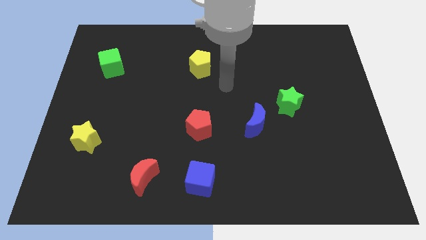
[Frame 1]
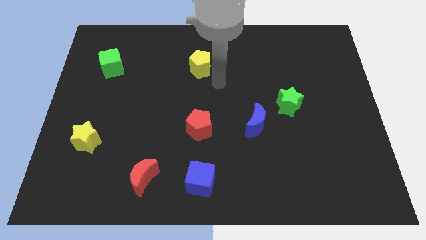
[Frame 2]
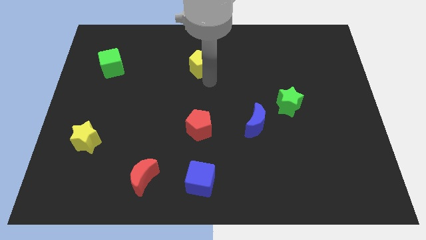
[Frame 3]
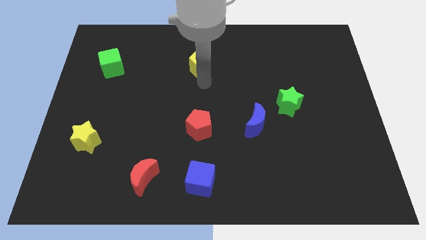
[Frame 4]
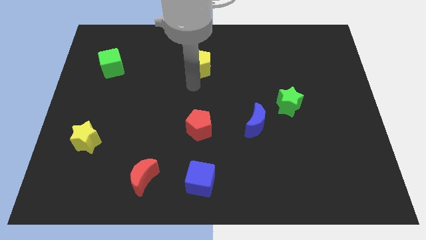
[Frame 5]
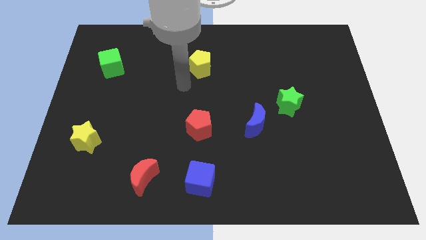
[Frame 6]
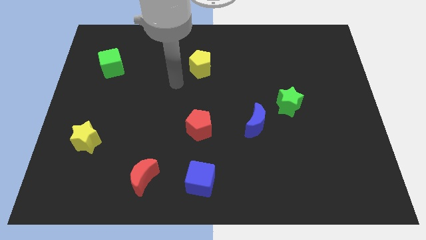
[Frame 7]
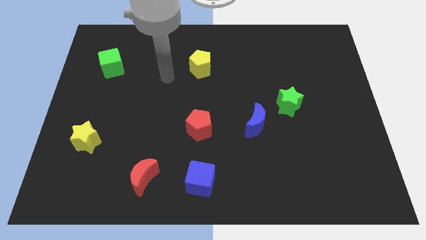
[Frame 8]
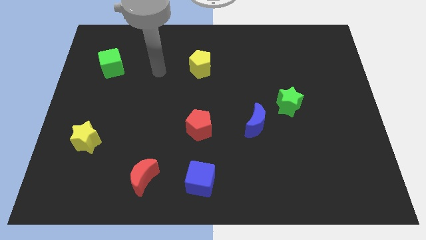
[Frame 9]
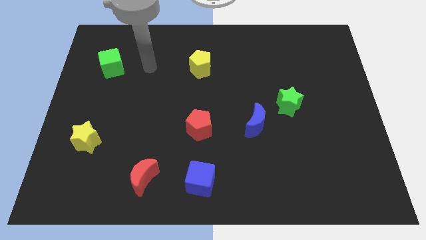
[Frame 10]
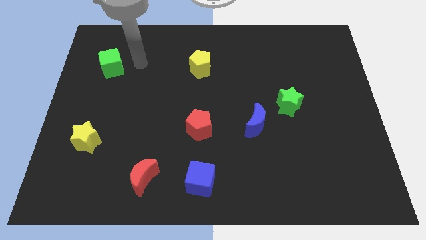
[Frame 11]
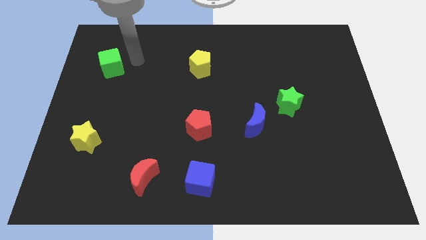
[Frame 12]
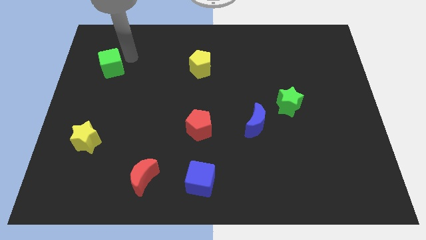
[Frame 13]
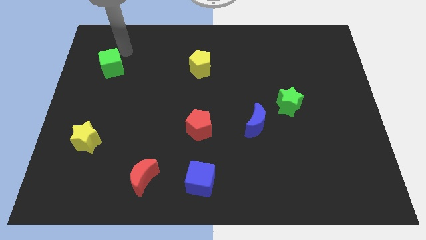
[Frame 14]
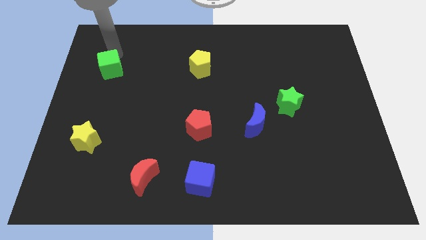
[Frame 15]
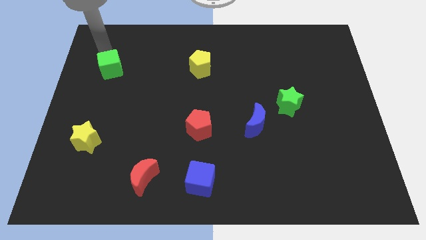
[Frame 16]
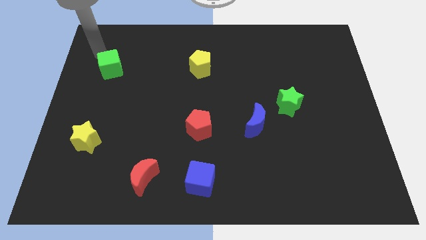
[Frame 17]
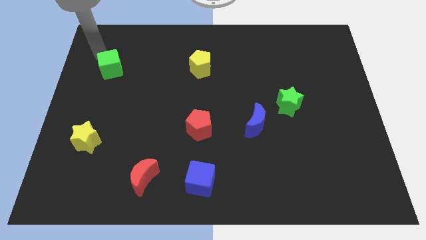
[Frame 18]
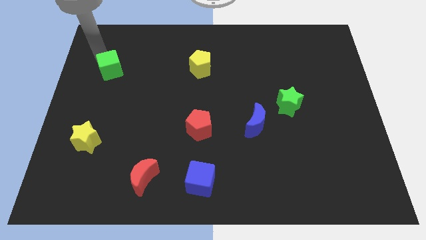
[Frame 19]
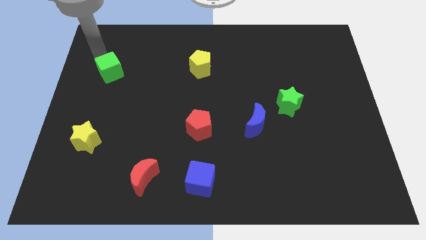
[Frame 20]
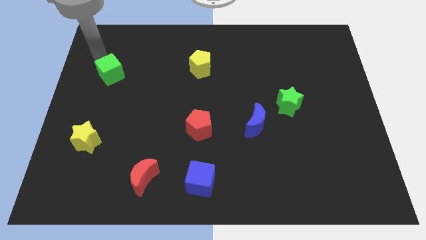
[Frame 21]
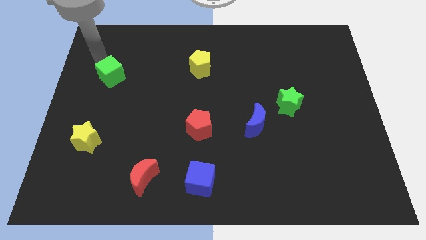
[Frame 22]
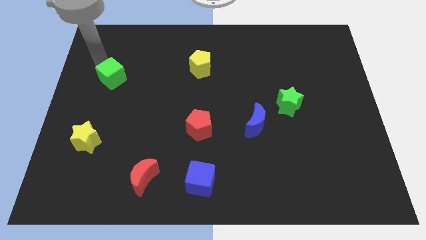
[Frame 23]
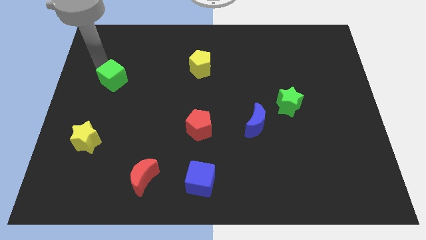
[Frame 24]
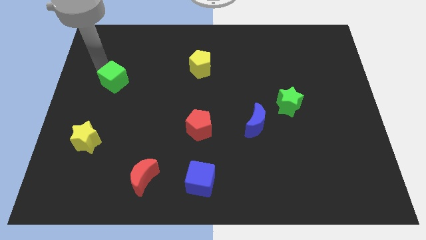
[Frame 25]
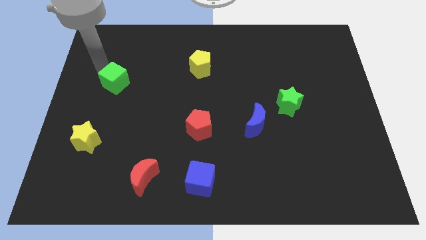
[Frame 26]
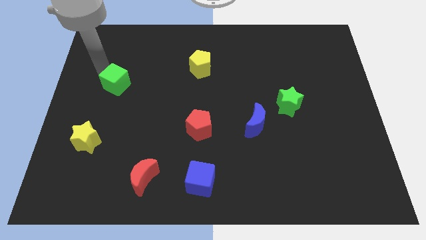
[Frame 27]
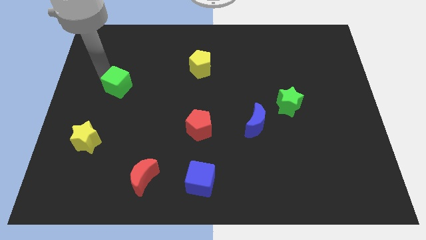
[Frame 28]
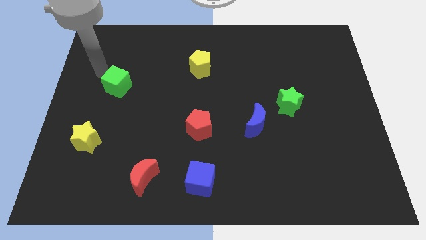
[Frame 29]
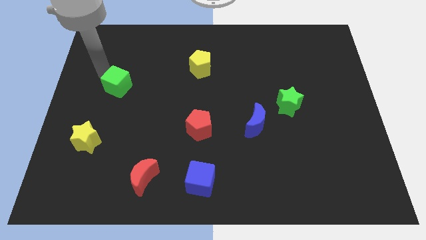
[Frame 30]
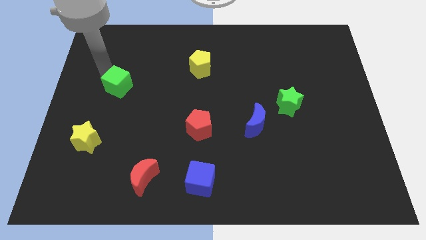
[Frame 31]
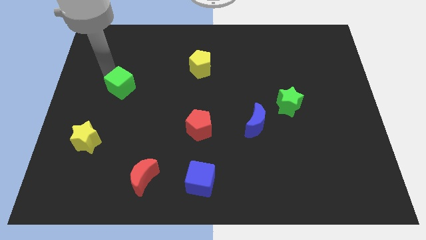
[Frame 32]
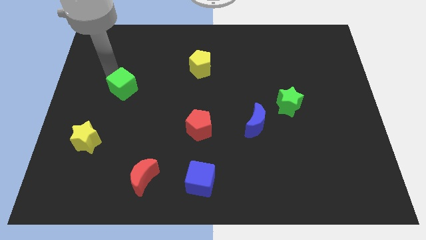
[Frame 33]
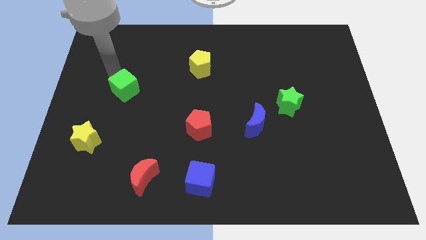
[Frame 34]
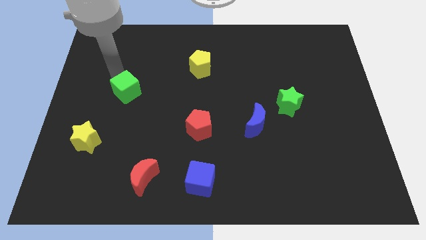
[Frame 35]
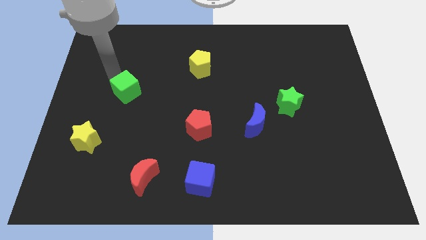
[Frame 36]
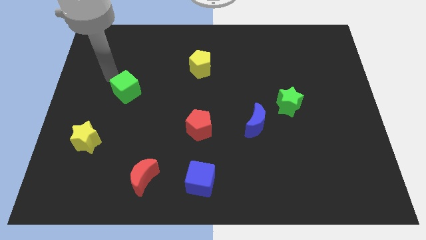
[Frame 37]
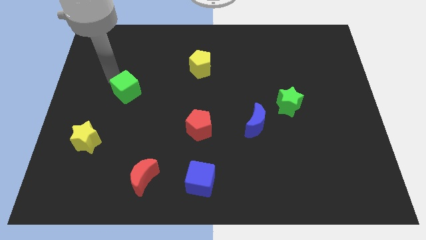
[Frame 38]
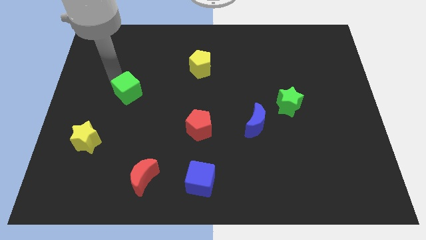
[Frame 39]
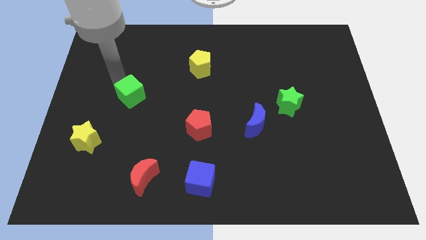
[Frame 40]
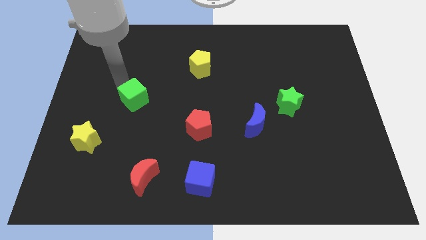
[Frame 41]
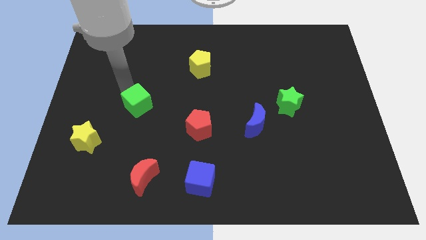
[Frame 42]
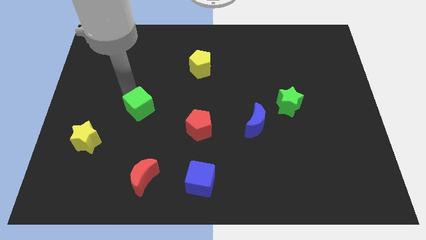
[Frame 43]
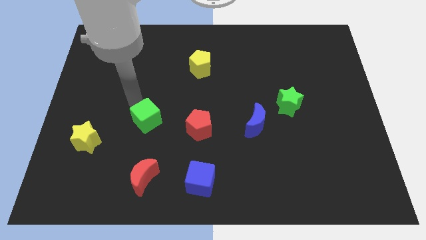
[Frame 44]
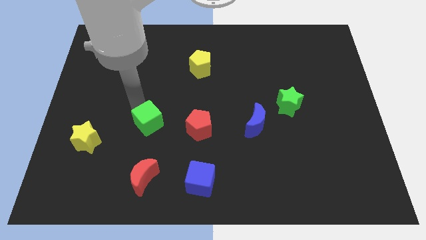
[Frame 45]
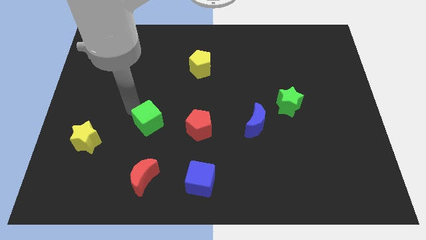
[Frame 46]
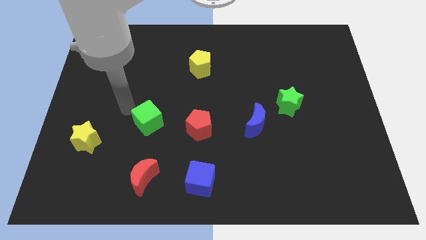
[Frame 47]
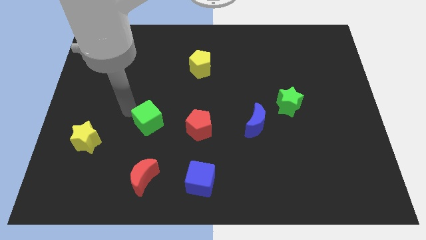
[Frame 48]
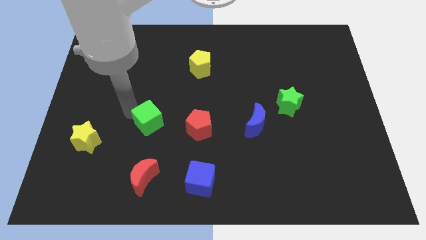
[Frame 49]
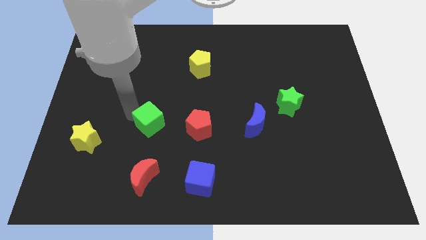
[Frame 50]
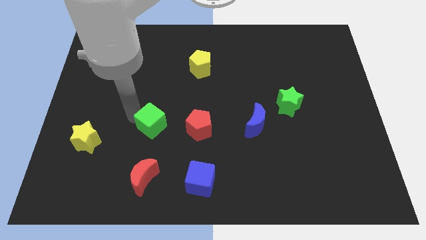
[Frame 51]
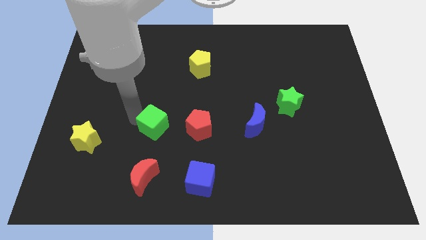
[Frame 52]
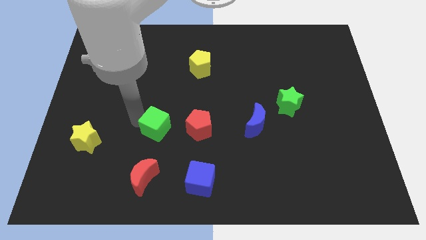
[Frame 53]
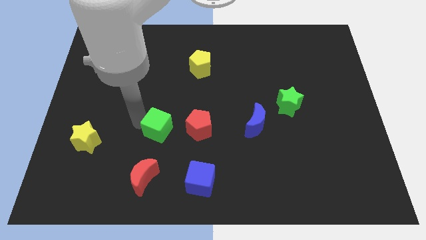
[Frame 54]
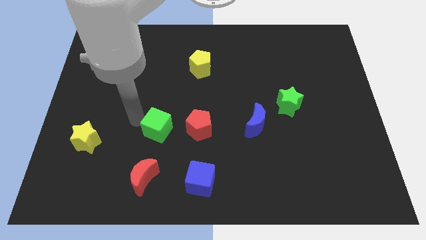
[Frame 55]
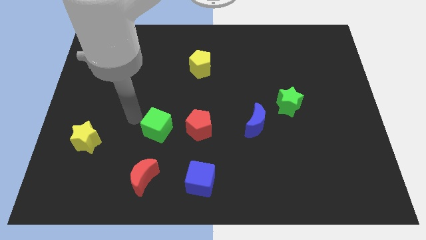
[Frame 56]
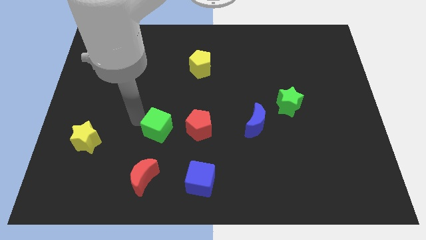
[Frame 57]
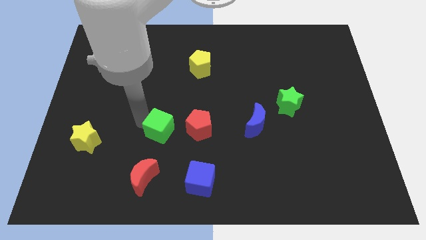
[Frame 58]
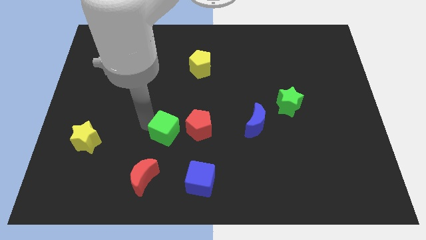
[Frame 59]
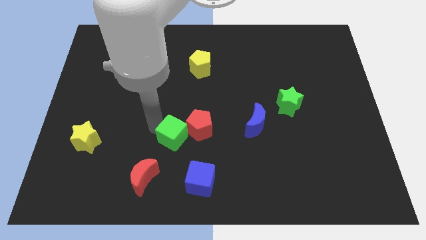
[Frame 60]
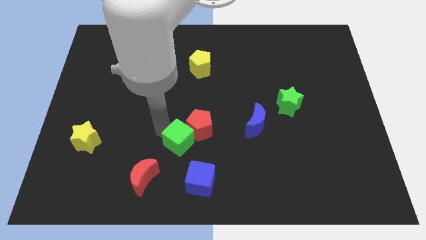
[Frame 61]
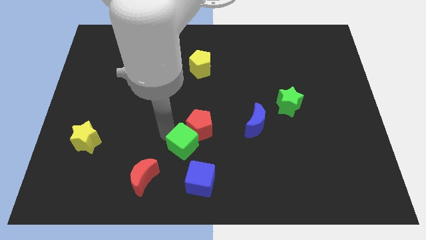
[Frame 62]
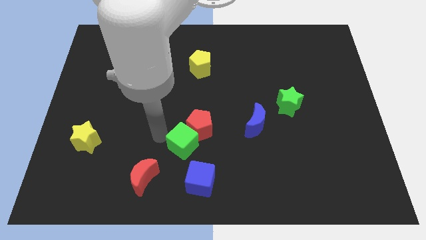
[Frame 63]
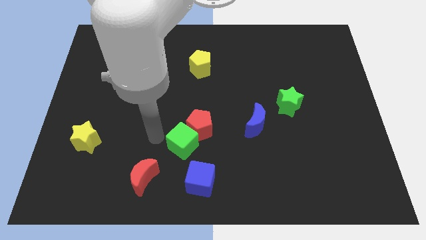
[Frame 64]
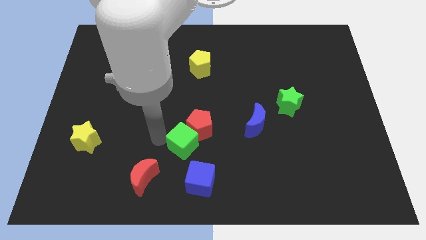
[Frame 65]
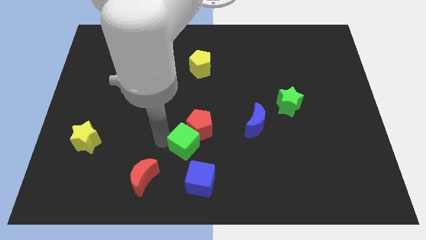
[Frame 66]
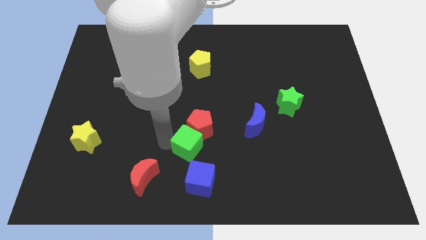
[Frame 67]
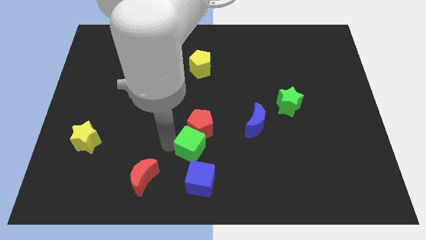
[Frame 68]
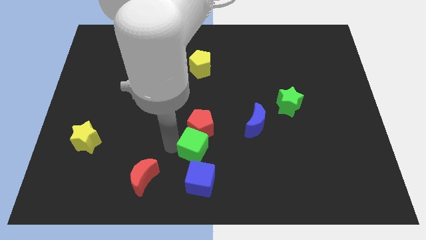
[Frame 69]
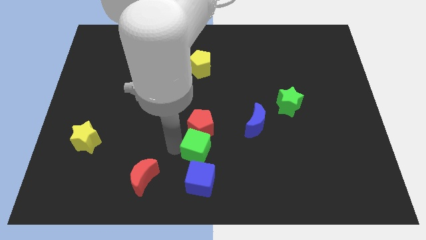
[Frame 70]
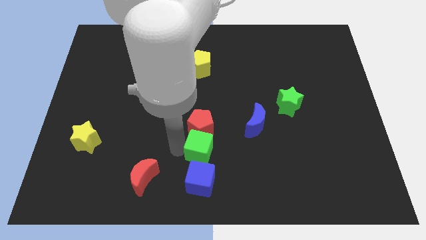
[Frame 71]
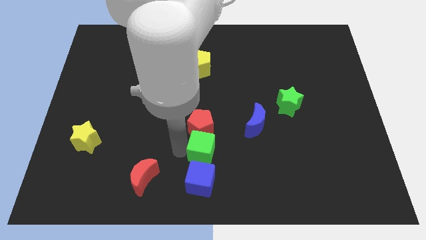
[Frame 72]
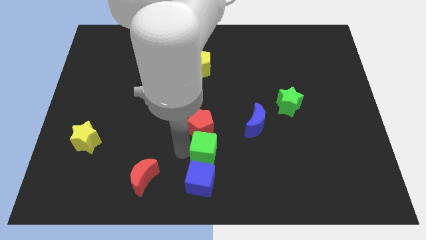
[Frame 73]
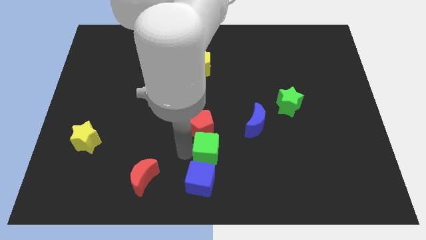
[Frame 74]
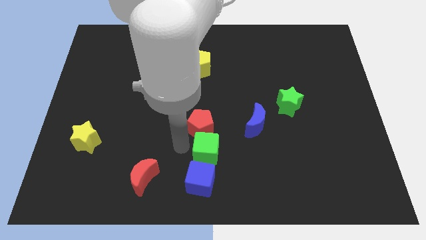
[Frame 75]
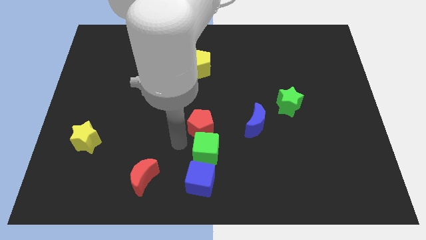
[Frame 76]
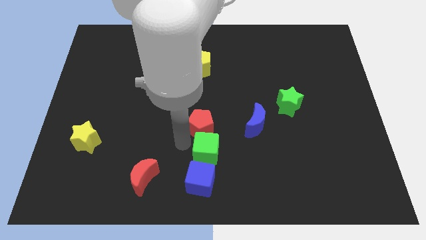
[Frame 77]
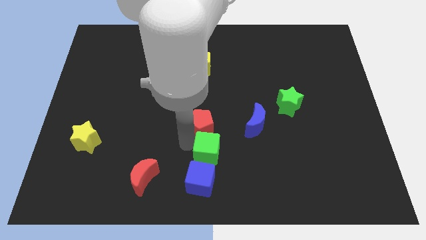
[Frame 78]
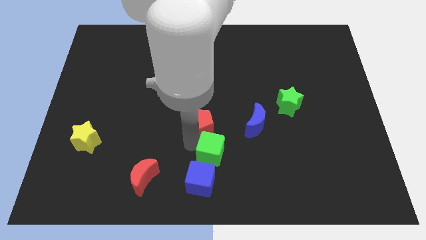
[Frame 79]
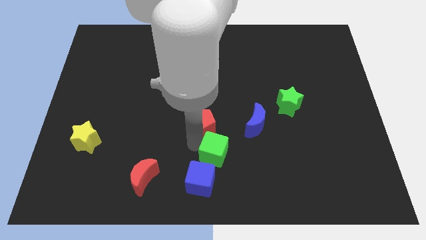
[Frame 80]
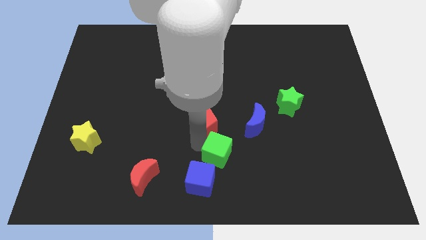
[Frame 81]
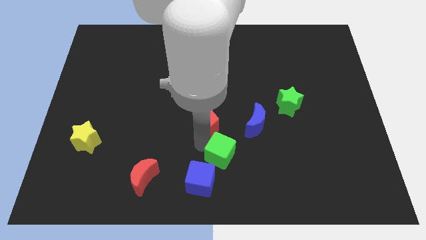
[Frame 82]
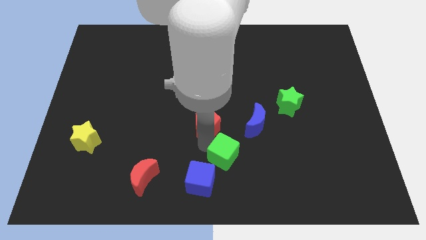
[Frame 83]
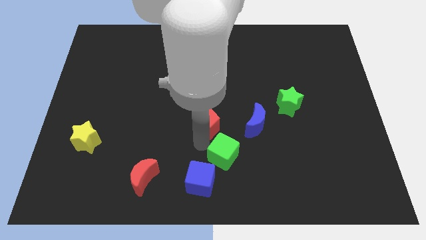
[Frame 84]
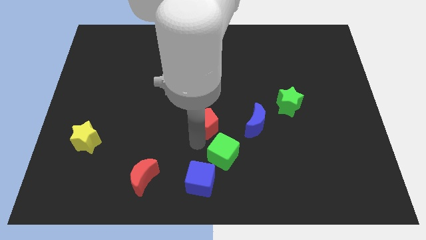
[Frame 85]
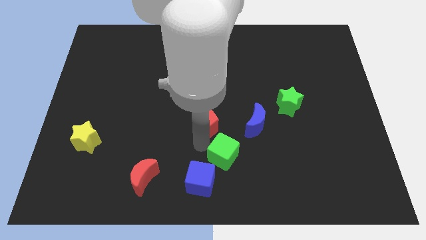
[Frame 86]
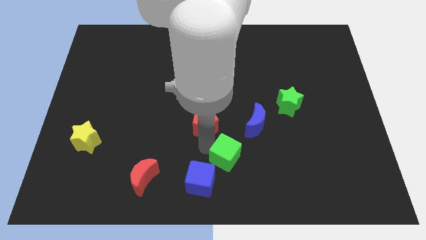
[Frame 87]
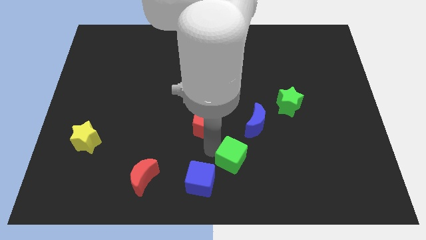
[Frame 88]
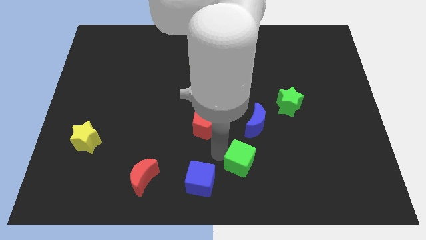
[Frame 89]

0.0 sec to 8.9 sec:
put the green cube below the blue moon

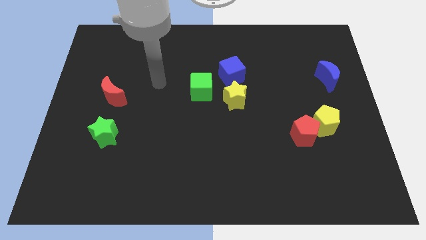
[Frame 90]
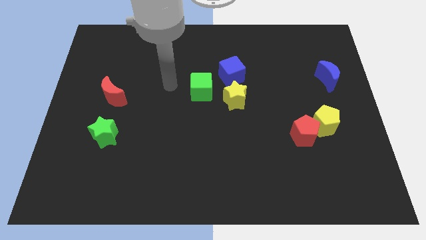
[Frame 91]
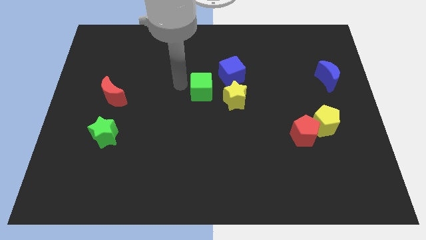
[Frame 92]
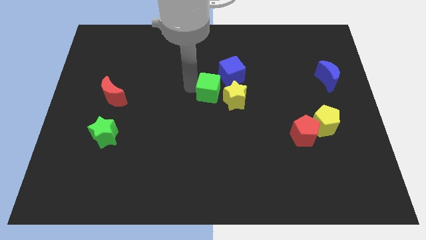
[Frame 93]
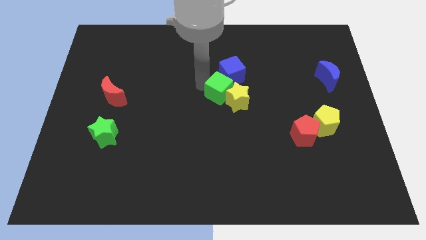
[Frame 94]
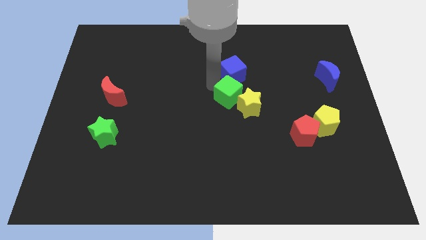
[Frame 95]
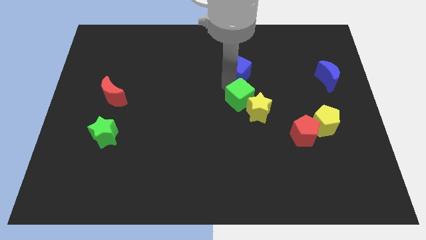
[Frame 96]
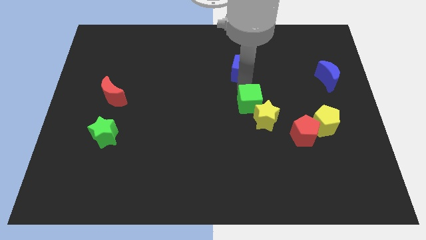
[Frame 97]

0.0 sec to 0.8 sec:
slide the yellow star left of the red pentagon
